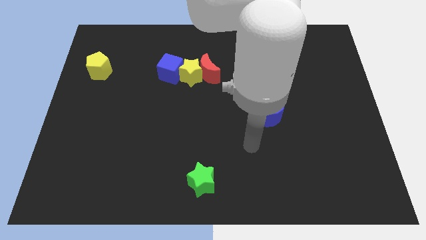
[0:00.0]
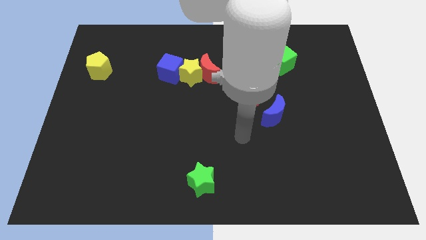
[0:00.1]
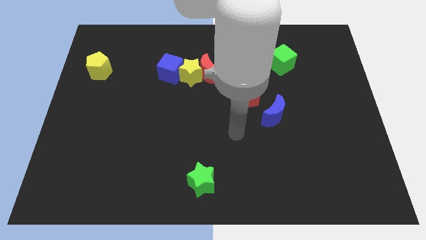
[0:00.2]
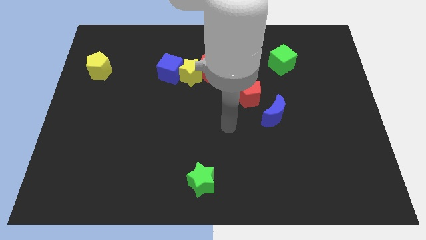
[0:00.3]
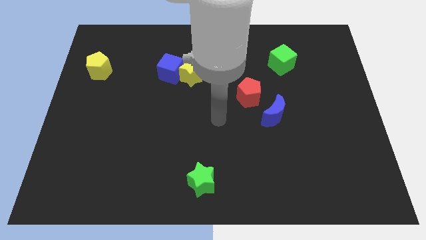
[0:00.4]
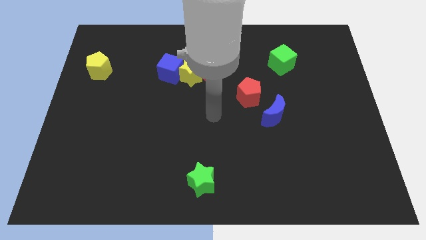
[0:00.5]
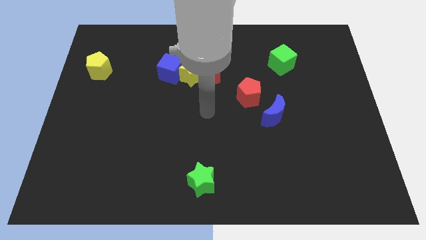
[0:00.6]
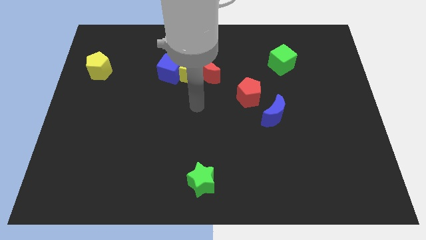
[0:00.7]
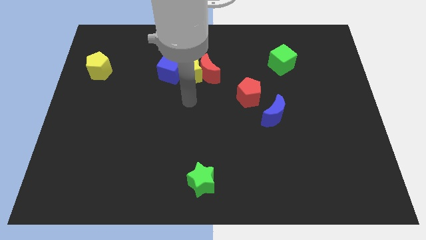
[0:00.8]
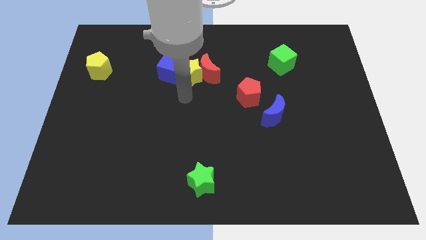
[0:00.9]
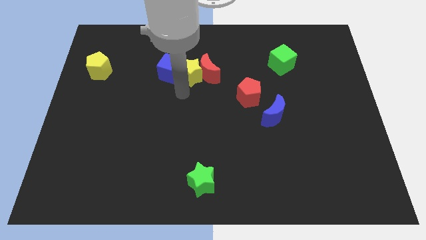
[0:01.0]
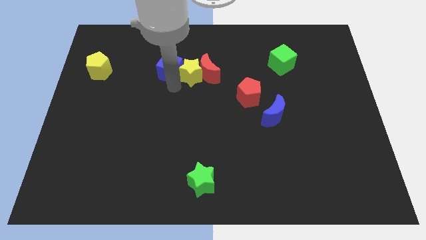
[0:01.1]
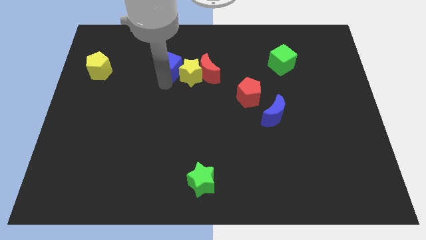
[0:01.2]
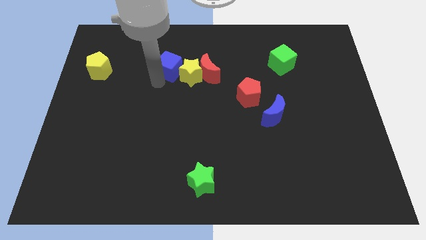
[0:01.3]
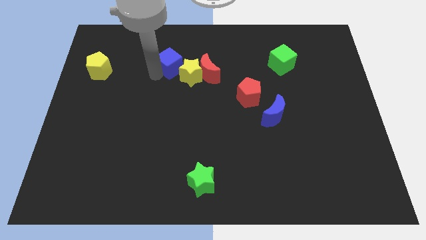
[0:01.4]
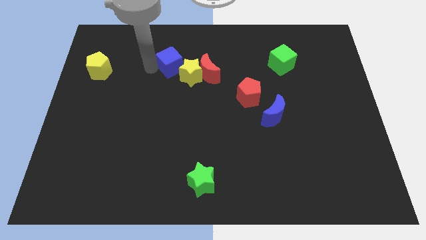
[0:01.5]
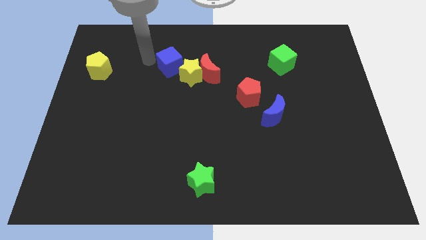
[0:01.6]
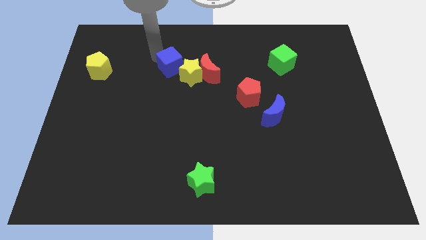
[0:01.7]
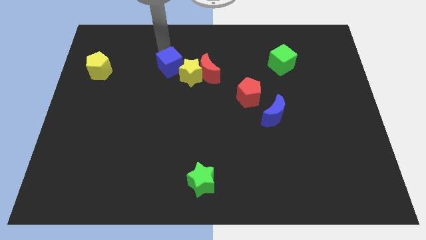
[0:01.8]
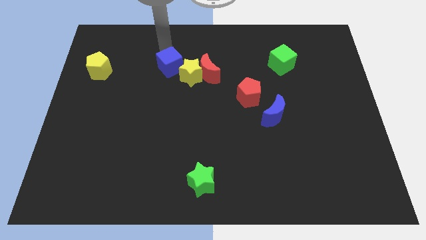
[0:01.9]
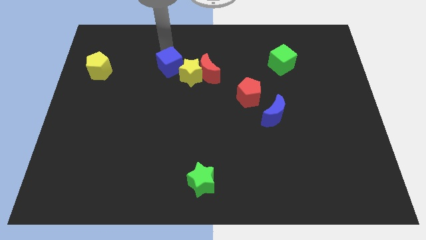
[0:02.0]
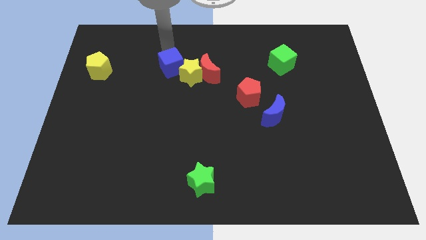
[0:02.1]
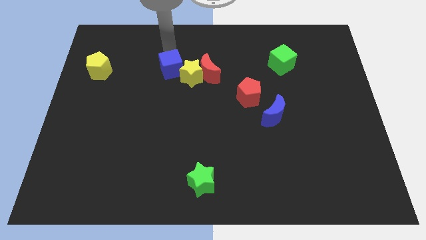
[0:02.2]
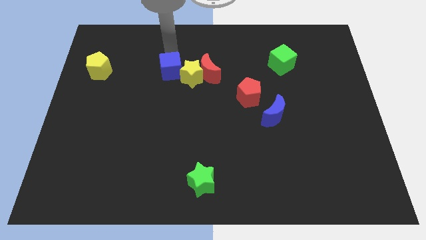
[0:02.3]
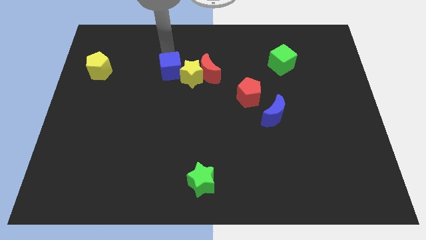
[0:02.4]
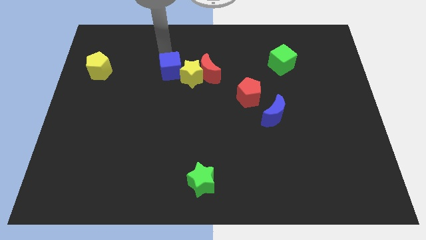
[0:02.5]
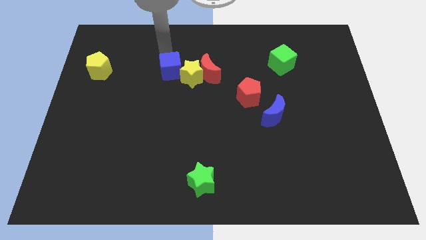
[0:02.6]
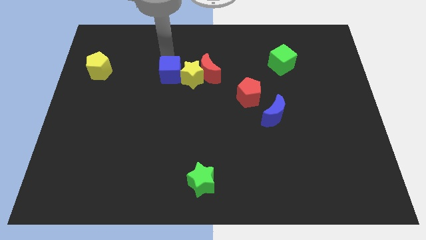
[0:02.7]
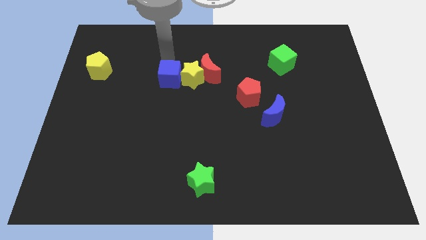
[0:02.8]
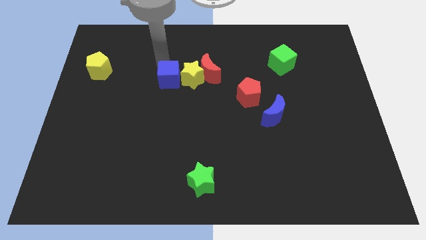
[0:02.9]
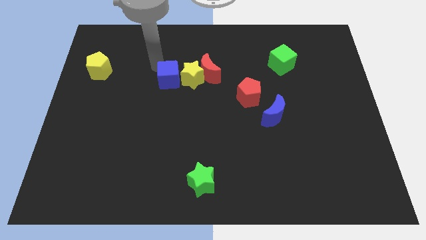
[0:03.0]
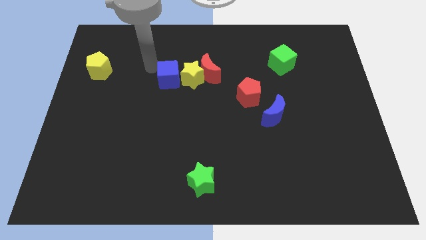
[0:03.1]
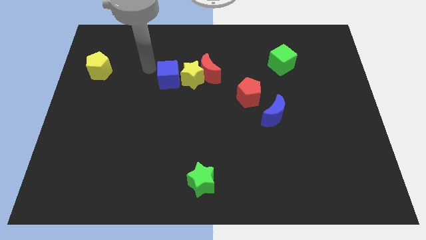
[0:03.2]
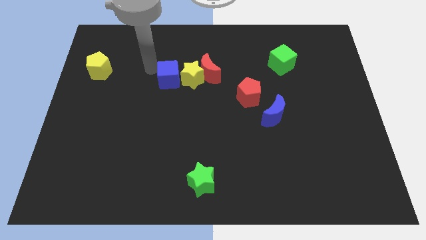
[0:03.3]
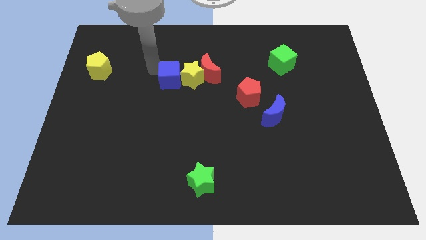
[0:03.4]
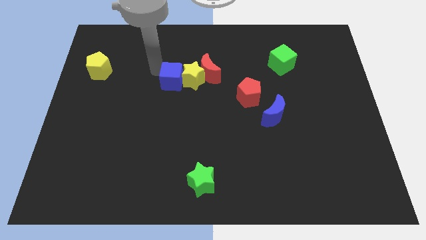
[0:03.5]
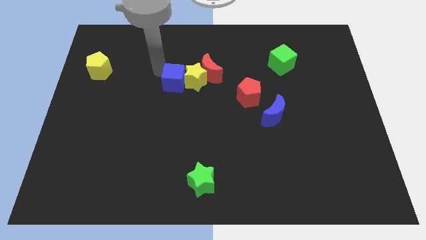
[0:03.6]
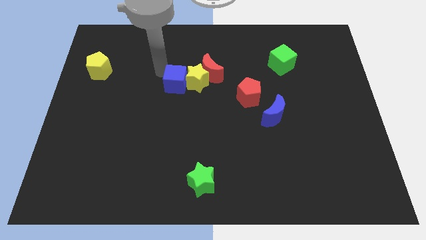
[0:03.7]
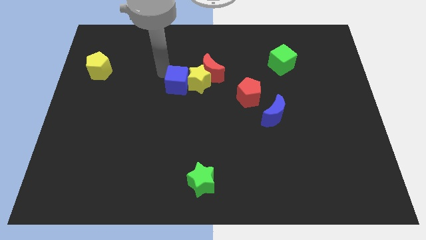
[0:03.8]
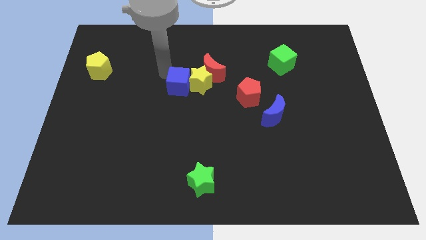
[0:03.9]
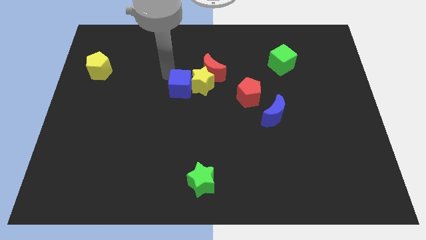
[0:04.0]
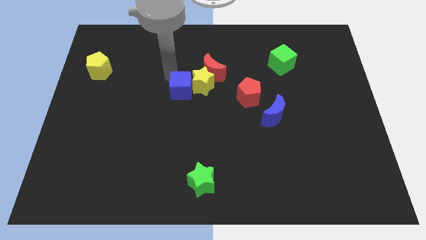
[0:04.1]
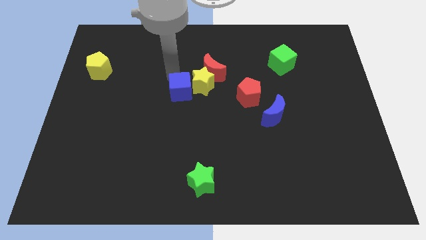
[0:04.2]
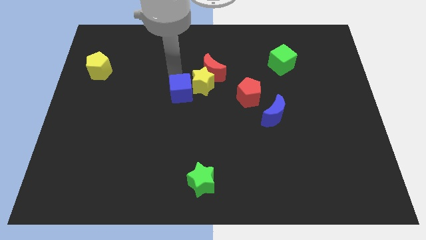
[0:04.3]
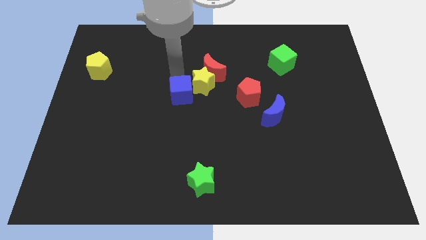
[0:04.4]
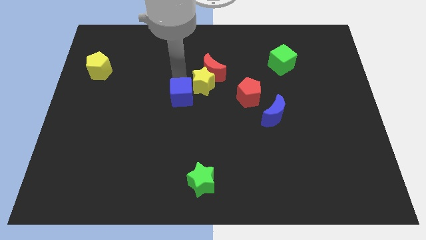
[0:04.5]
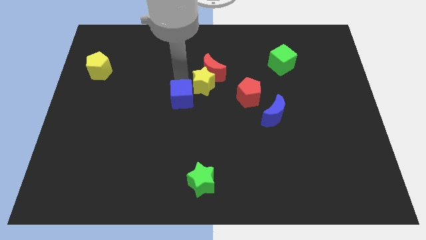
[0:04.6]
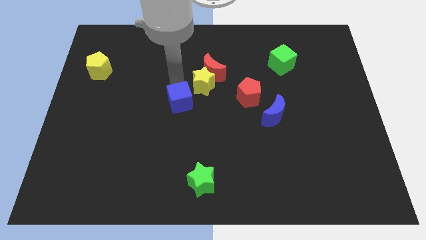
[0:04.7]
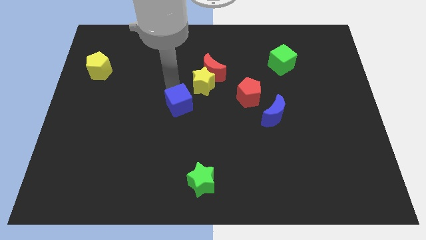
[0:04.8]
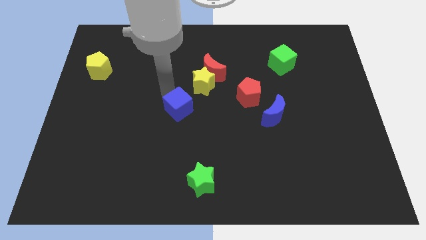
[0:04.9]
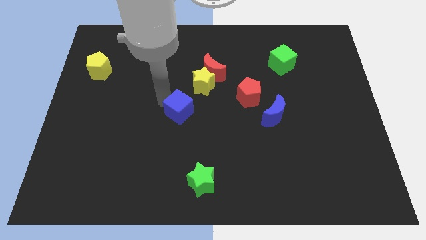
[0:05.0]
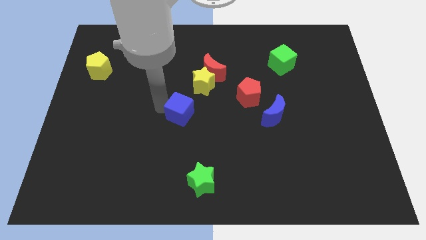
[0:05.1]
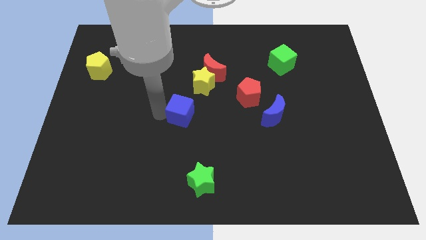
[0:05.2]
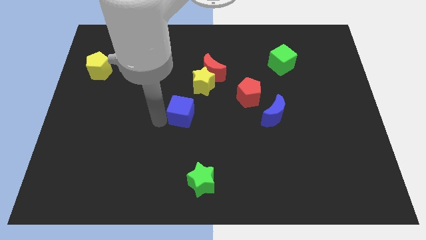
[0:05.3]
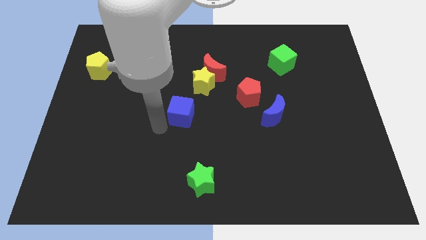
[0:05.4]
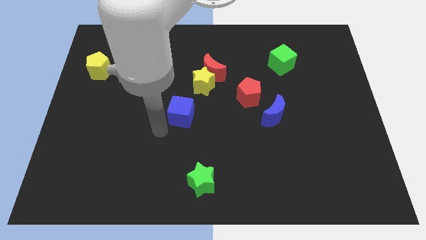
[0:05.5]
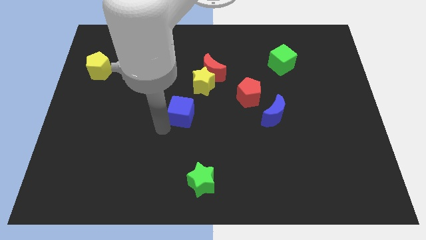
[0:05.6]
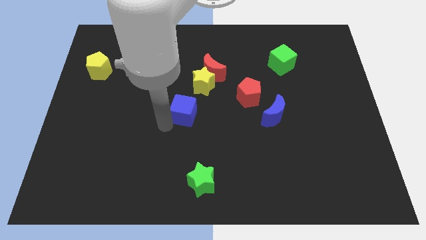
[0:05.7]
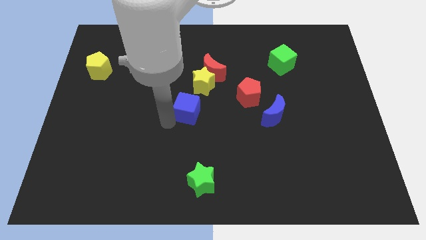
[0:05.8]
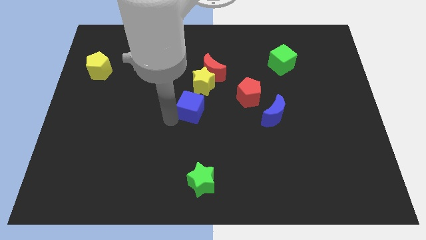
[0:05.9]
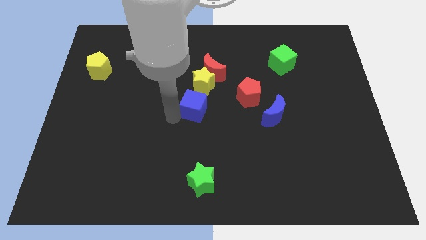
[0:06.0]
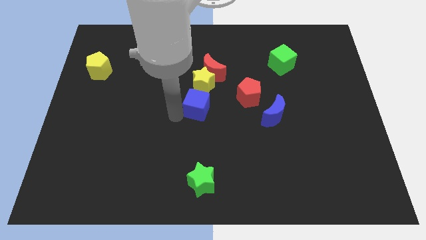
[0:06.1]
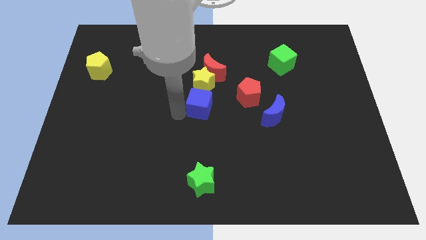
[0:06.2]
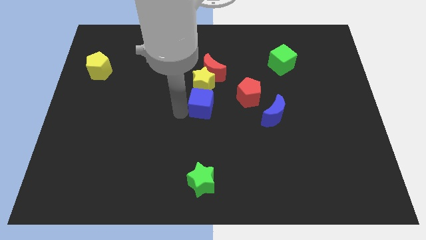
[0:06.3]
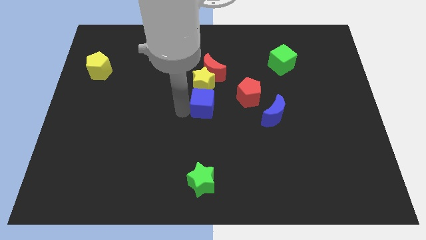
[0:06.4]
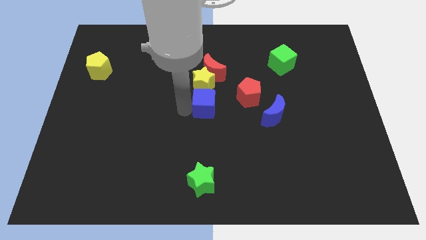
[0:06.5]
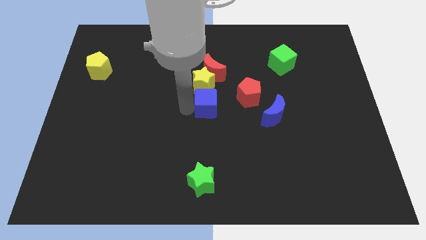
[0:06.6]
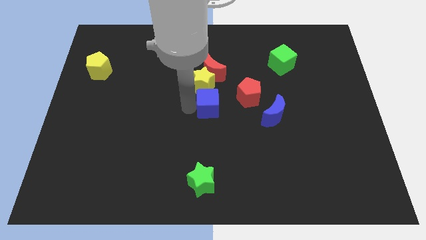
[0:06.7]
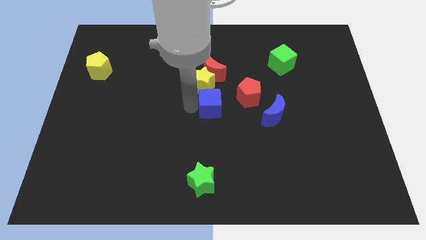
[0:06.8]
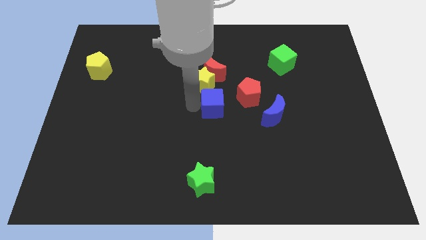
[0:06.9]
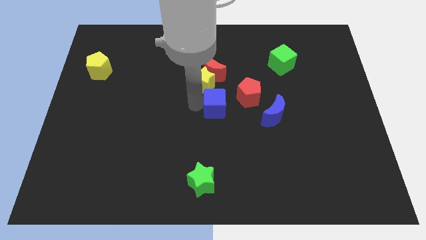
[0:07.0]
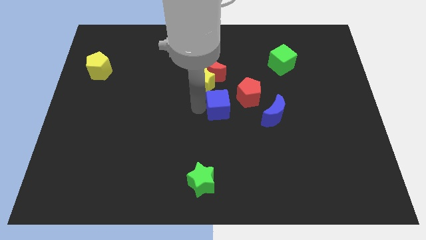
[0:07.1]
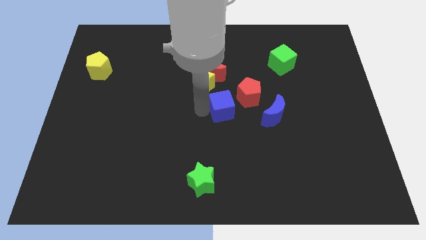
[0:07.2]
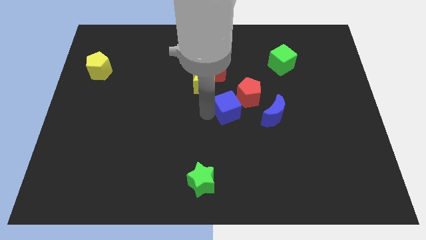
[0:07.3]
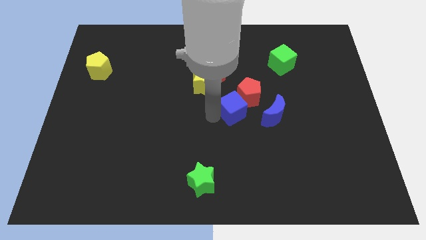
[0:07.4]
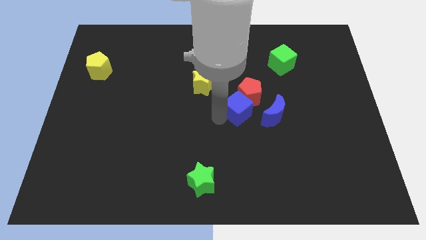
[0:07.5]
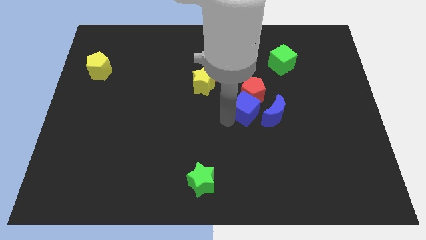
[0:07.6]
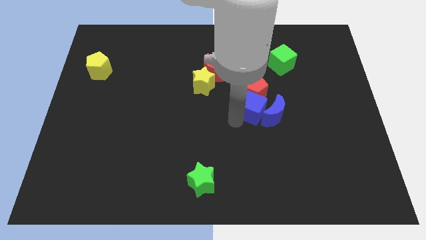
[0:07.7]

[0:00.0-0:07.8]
slide the blue cube towards the blue moon
